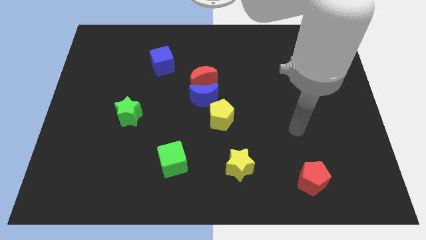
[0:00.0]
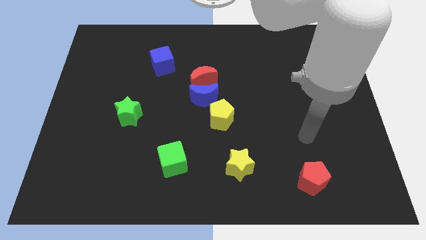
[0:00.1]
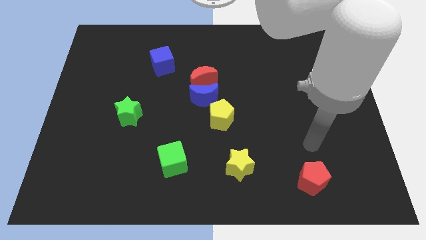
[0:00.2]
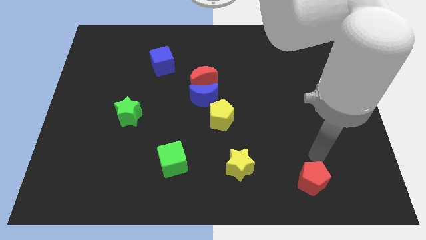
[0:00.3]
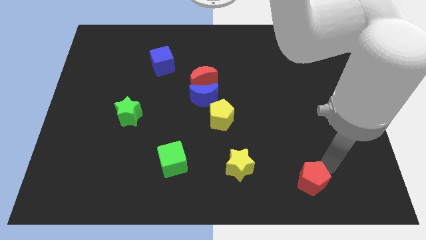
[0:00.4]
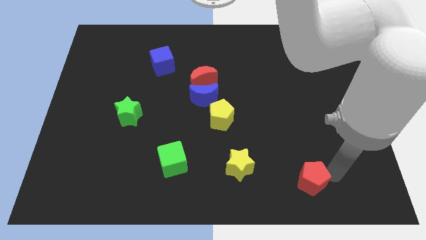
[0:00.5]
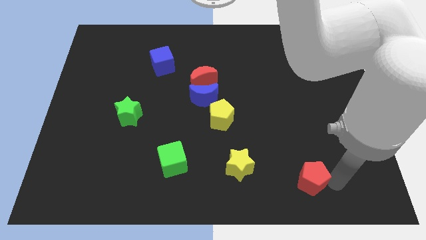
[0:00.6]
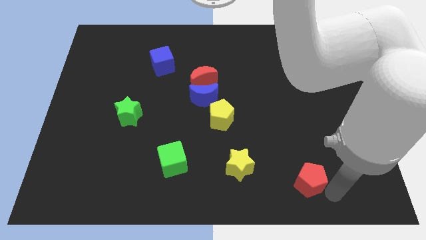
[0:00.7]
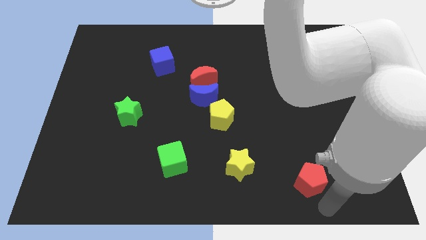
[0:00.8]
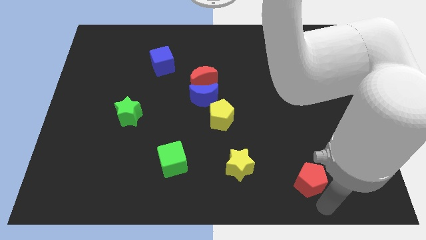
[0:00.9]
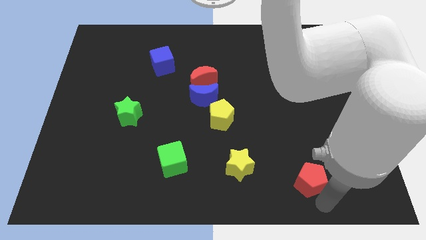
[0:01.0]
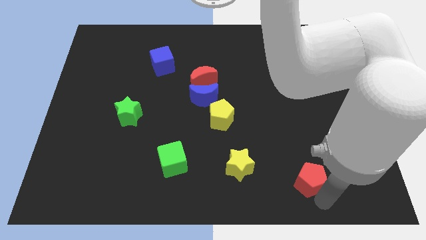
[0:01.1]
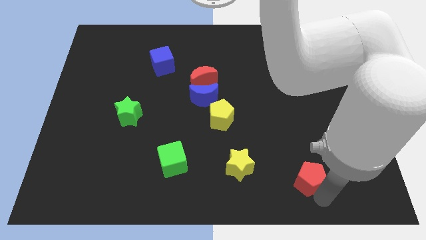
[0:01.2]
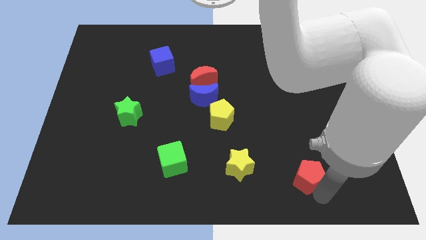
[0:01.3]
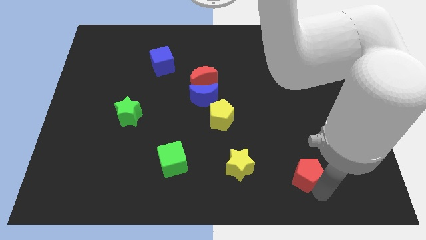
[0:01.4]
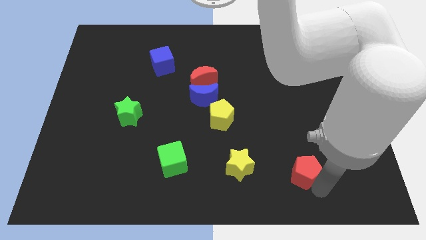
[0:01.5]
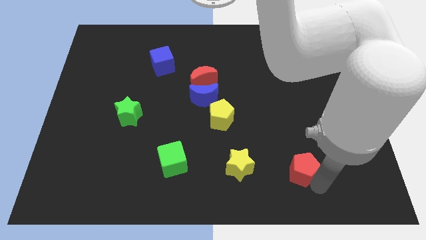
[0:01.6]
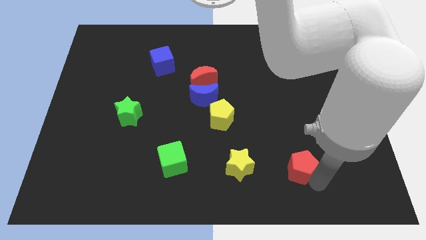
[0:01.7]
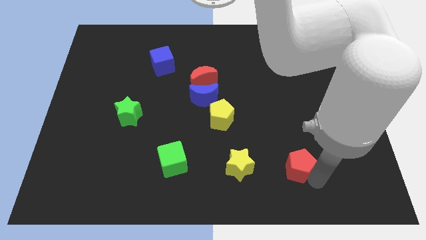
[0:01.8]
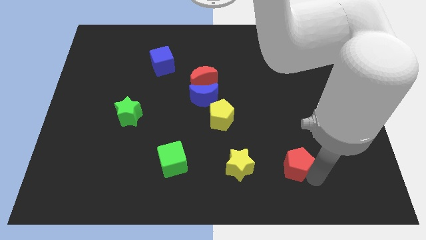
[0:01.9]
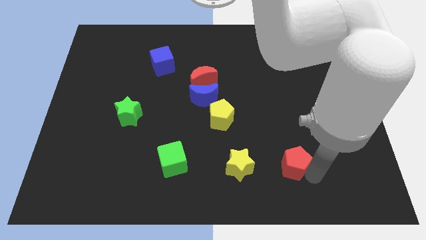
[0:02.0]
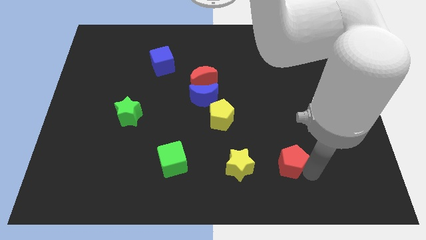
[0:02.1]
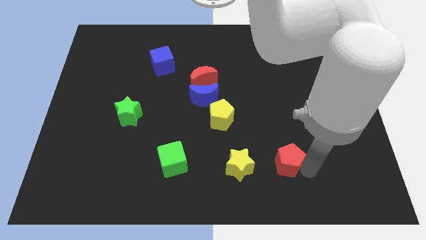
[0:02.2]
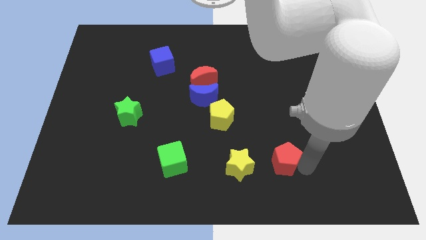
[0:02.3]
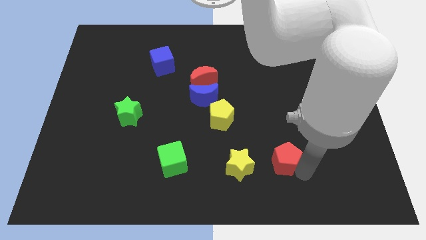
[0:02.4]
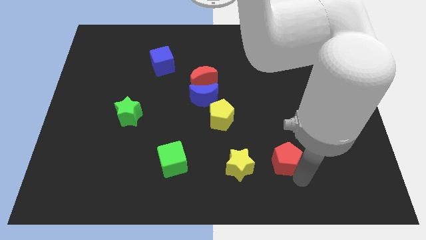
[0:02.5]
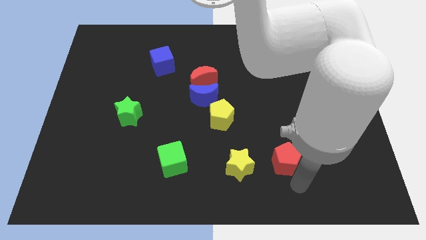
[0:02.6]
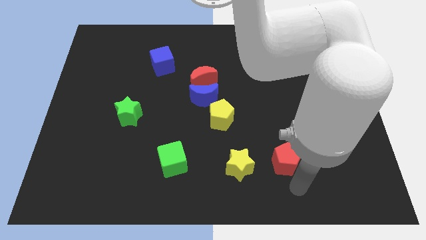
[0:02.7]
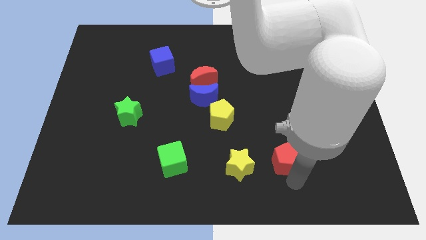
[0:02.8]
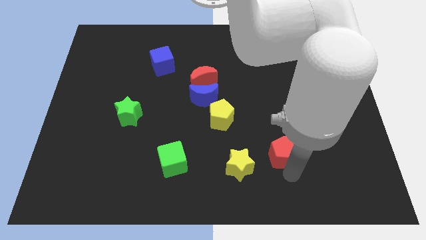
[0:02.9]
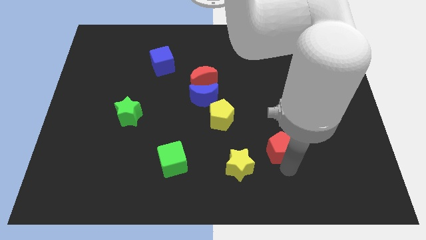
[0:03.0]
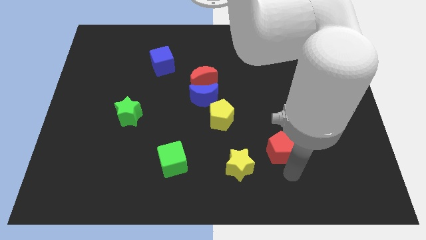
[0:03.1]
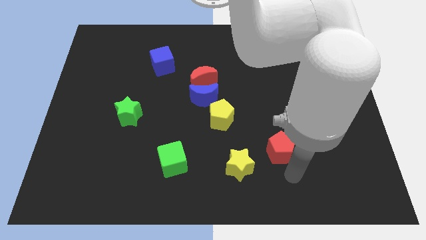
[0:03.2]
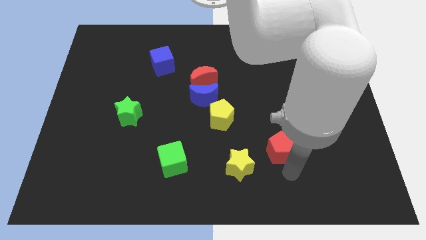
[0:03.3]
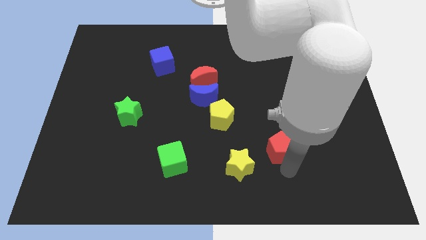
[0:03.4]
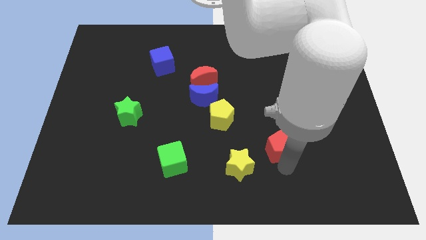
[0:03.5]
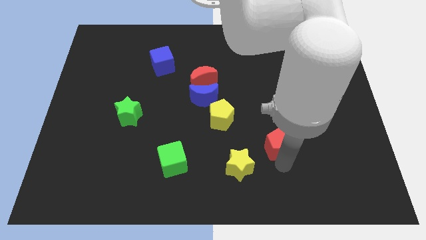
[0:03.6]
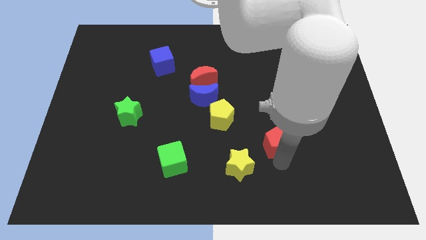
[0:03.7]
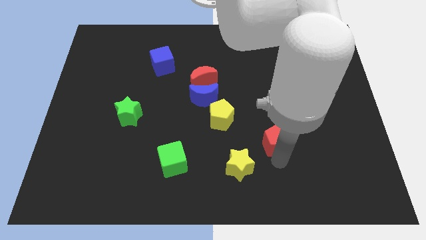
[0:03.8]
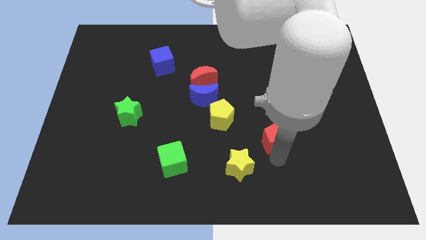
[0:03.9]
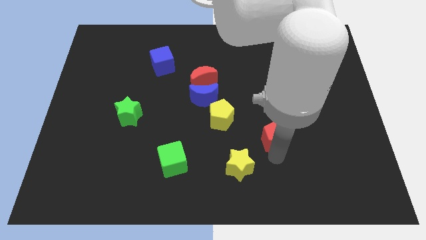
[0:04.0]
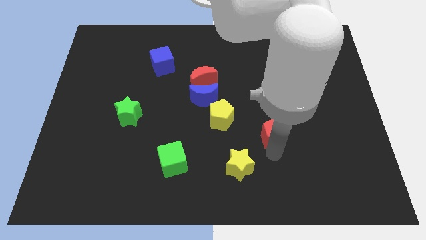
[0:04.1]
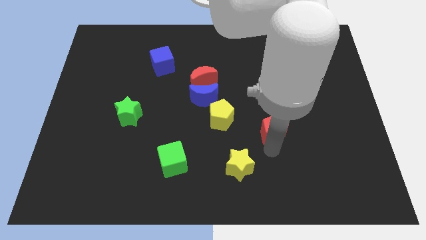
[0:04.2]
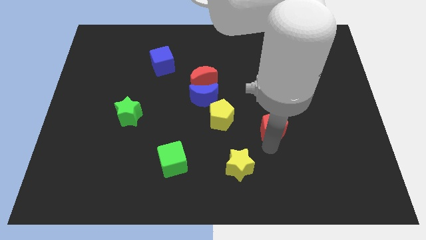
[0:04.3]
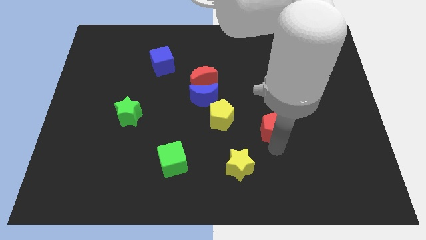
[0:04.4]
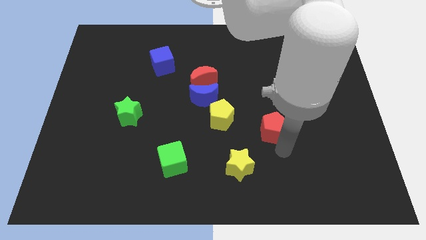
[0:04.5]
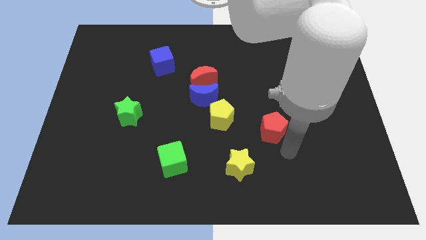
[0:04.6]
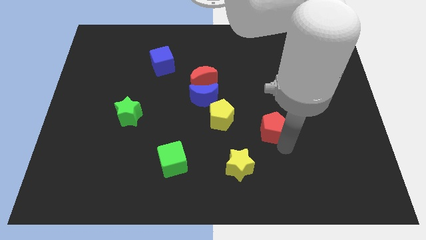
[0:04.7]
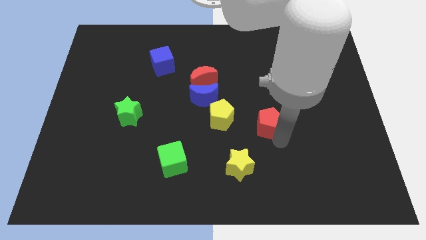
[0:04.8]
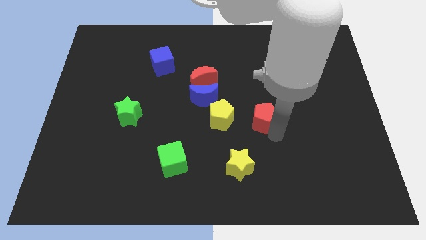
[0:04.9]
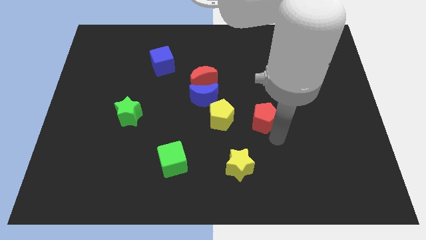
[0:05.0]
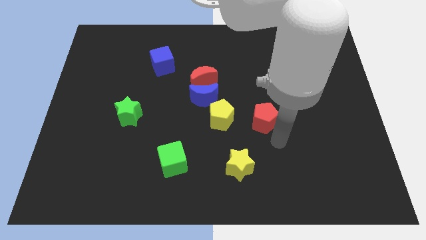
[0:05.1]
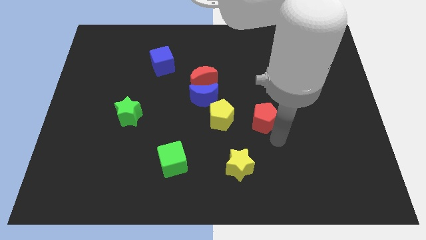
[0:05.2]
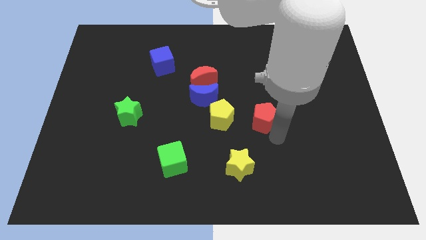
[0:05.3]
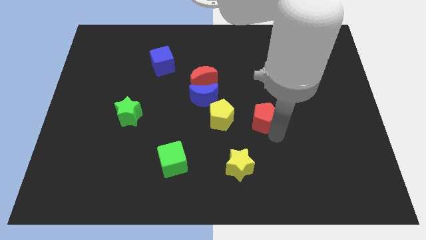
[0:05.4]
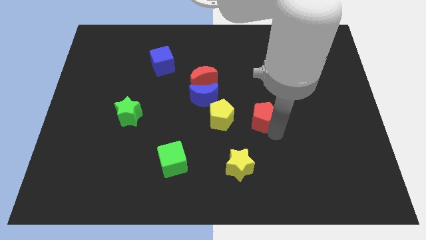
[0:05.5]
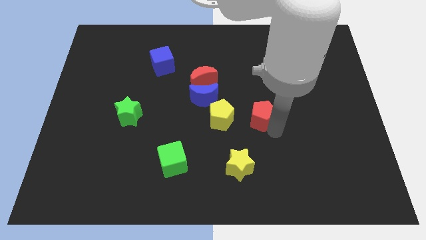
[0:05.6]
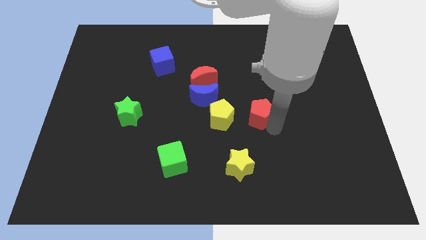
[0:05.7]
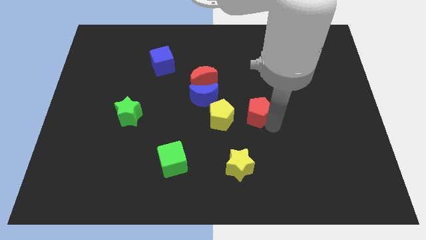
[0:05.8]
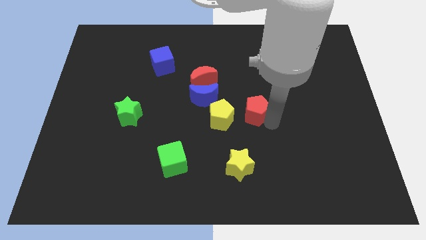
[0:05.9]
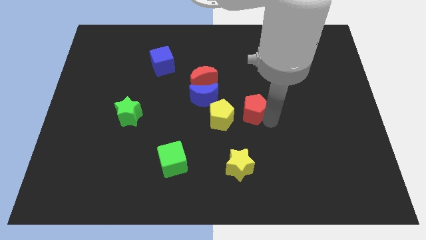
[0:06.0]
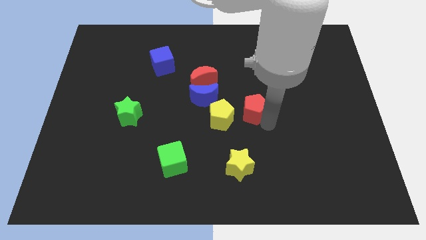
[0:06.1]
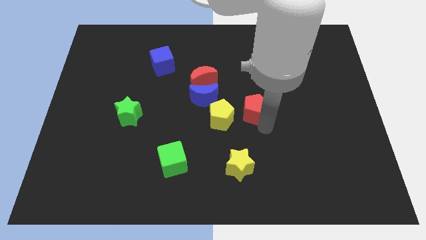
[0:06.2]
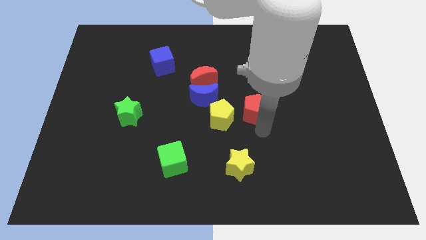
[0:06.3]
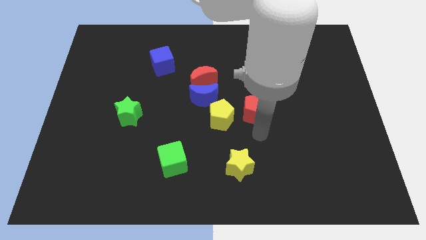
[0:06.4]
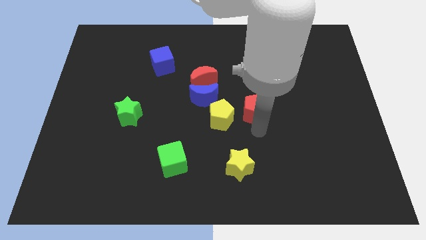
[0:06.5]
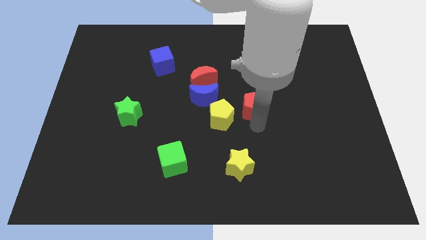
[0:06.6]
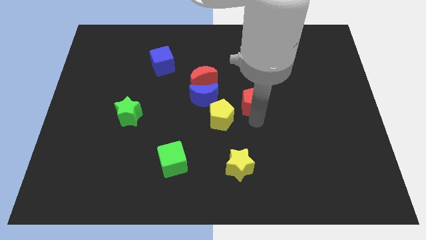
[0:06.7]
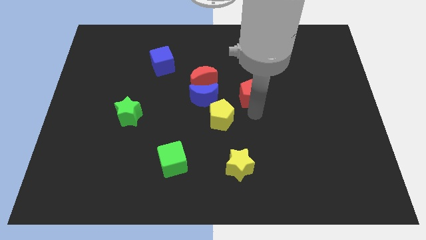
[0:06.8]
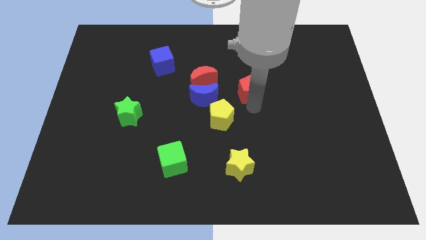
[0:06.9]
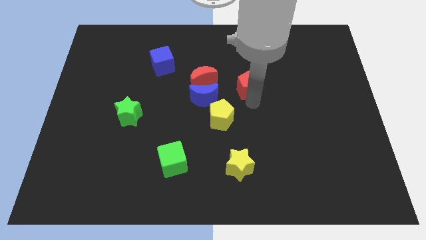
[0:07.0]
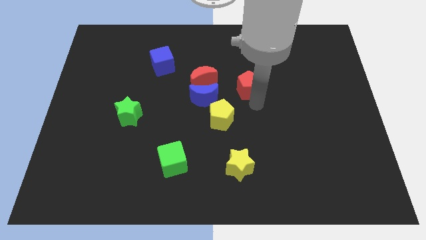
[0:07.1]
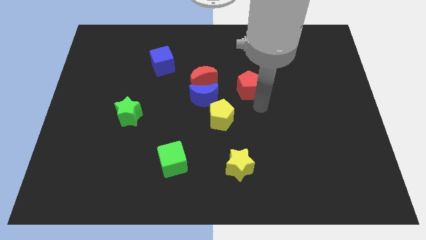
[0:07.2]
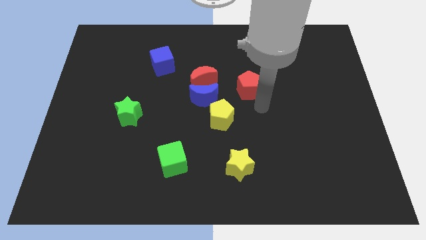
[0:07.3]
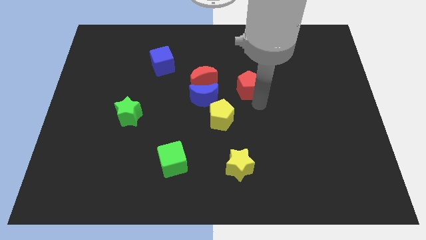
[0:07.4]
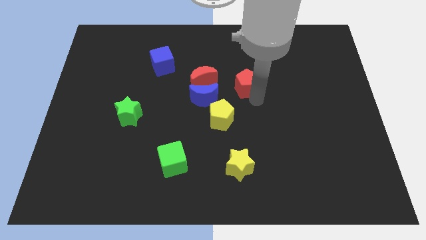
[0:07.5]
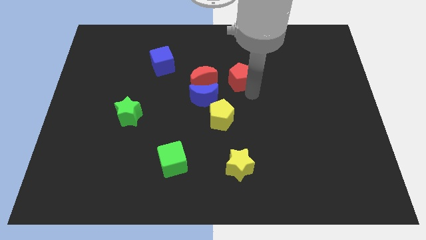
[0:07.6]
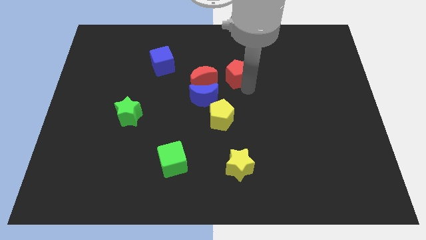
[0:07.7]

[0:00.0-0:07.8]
slide the red pentagon diagonally up and to the right of the red moon
